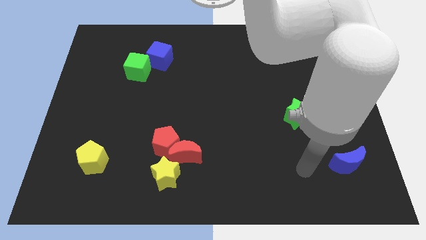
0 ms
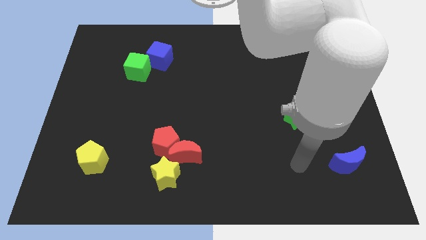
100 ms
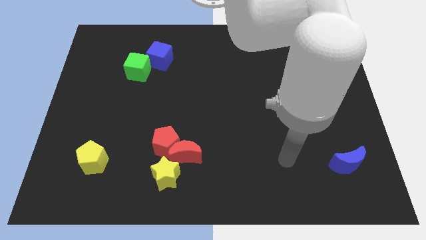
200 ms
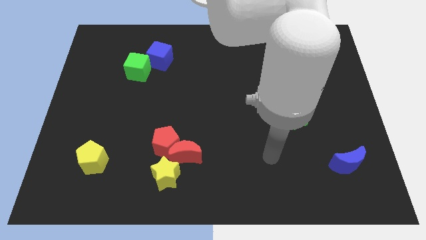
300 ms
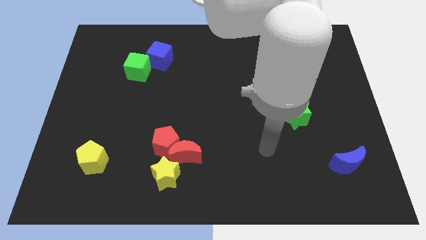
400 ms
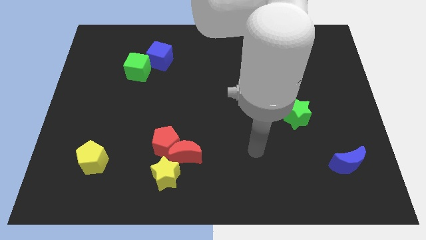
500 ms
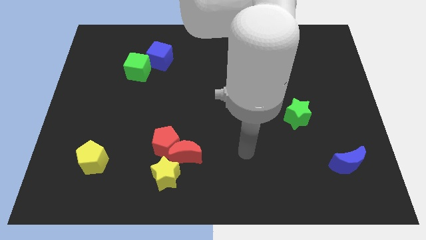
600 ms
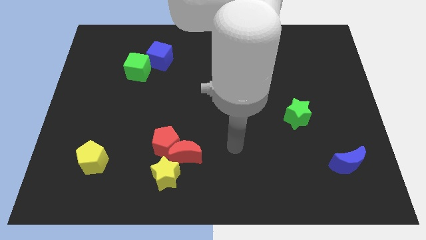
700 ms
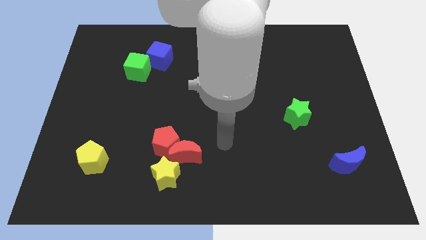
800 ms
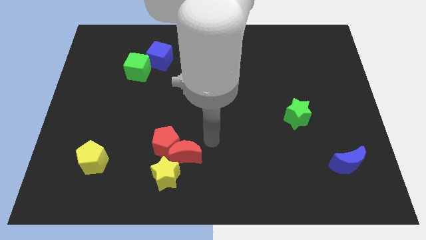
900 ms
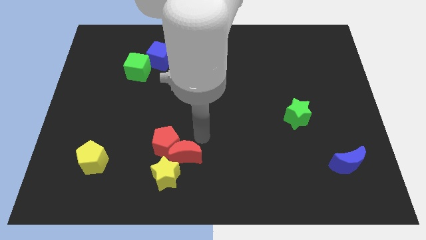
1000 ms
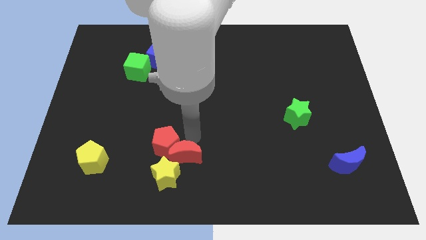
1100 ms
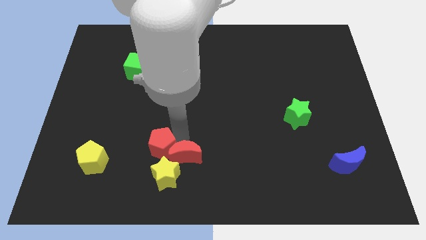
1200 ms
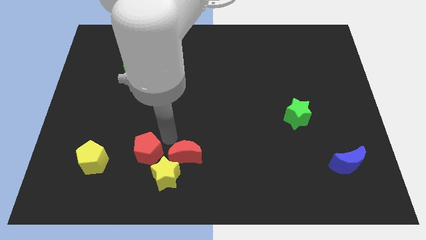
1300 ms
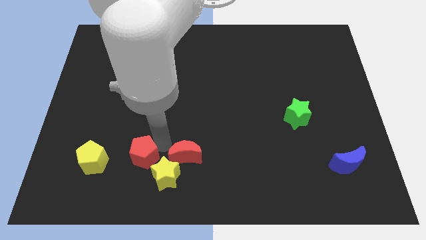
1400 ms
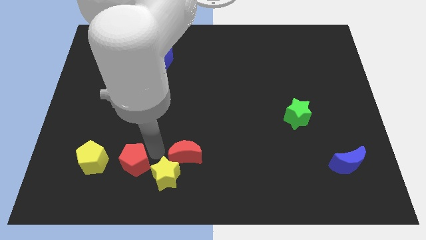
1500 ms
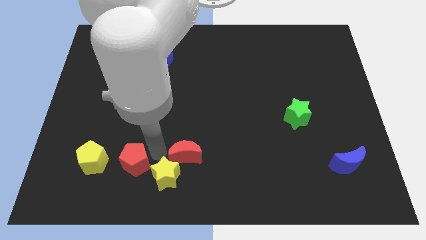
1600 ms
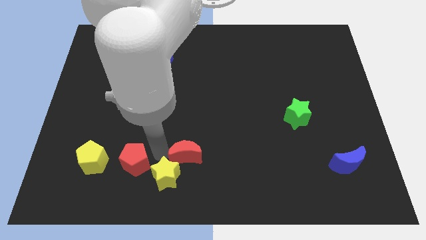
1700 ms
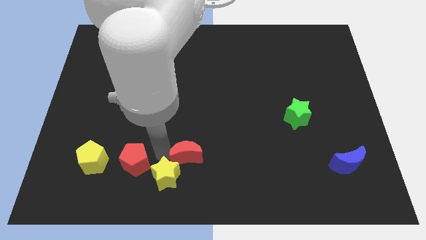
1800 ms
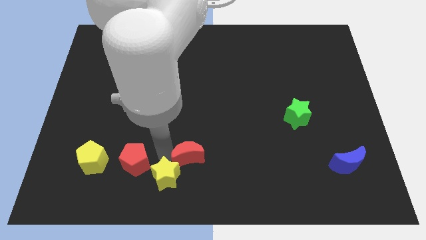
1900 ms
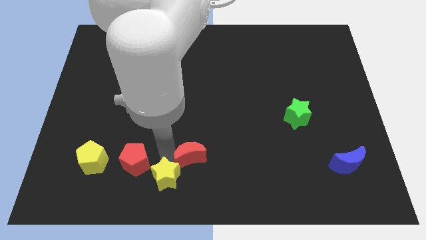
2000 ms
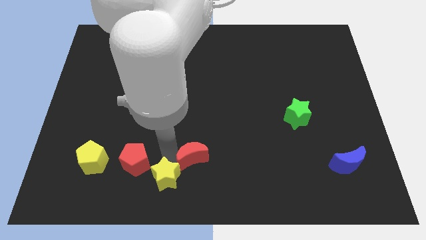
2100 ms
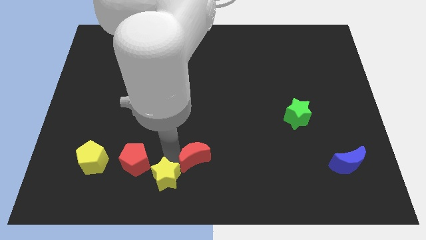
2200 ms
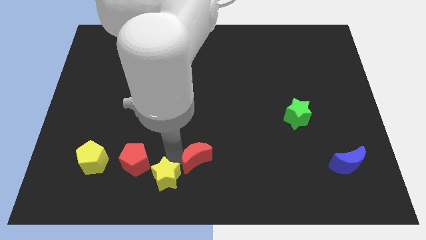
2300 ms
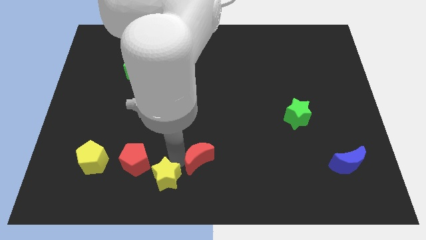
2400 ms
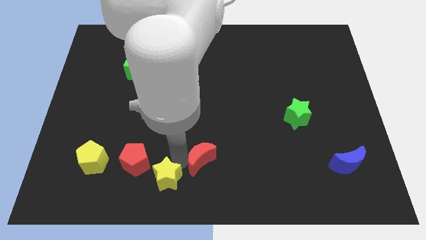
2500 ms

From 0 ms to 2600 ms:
separate the red moon from the red pentagon and yellow star

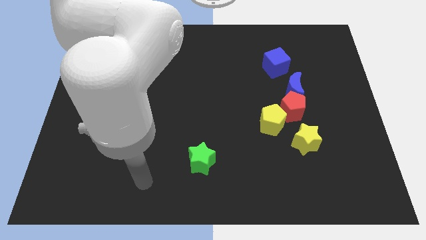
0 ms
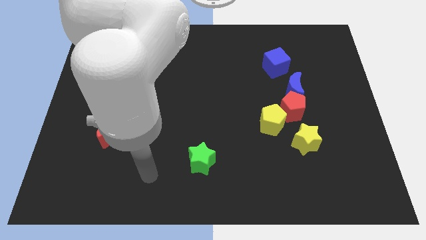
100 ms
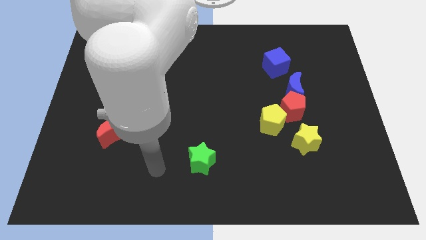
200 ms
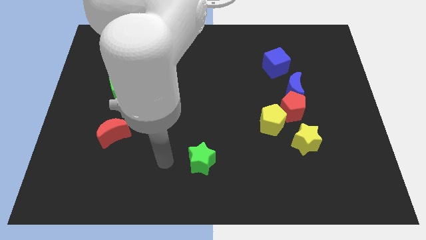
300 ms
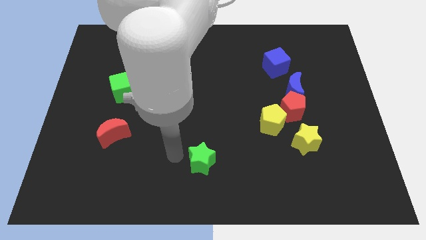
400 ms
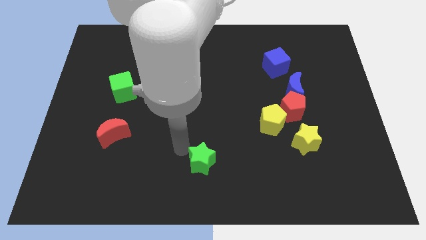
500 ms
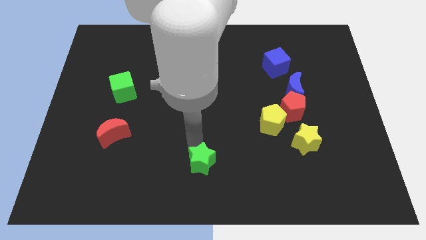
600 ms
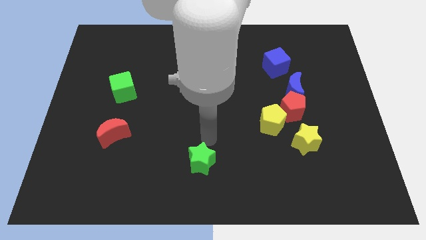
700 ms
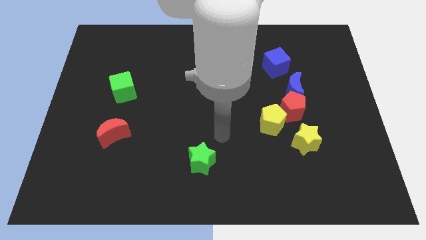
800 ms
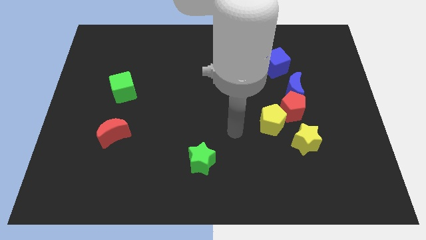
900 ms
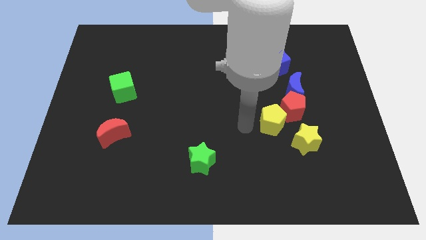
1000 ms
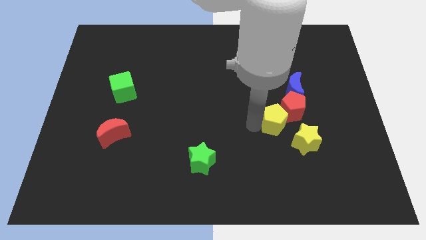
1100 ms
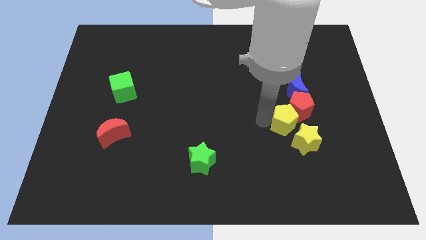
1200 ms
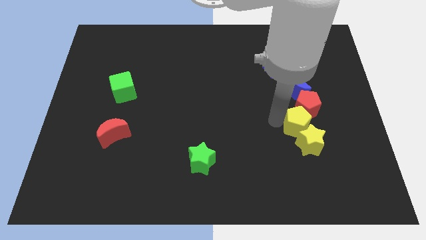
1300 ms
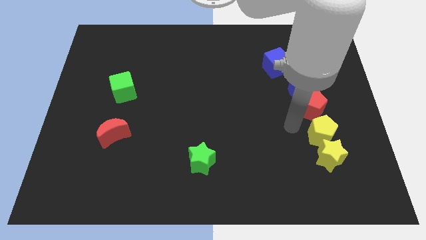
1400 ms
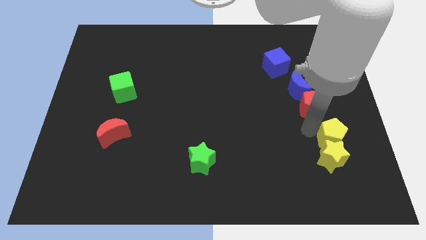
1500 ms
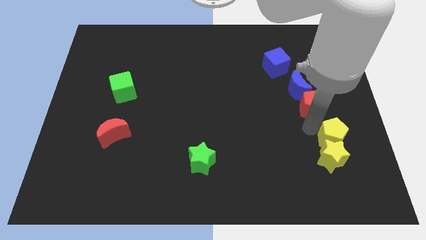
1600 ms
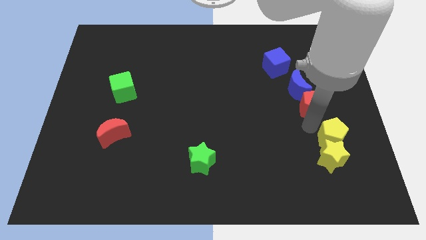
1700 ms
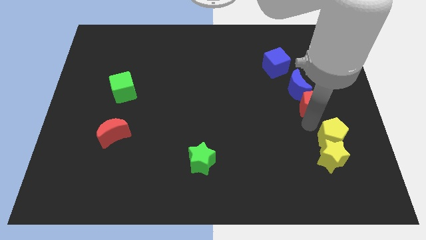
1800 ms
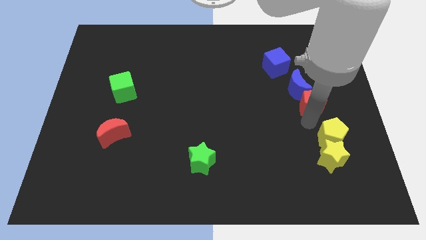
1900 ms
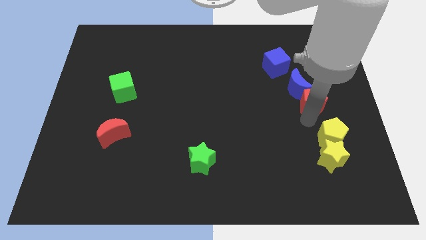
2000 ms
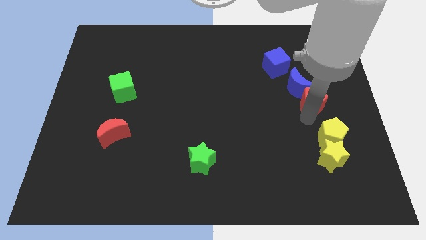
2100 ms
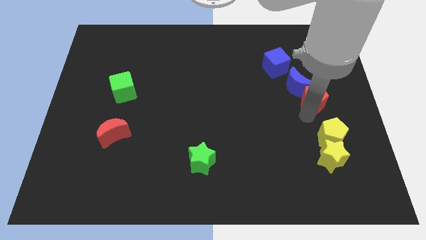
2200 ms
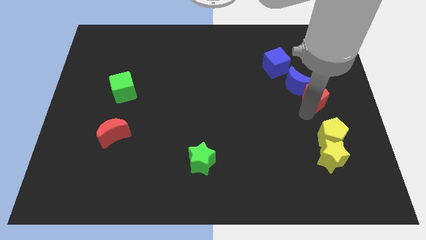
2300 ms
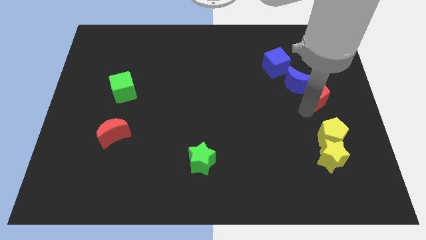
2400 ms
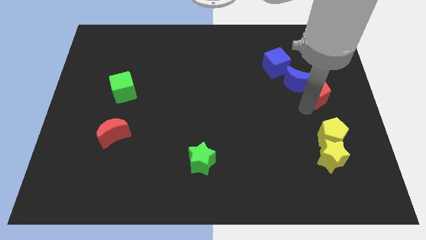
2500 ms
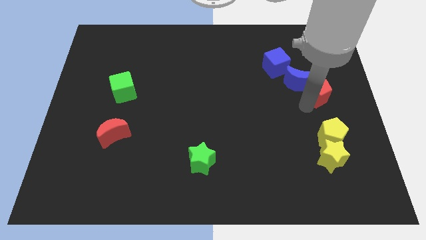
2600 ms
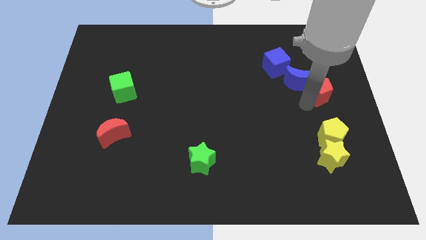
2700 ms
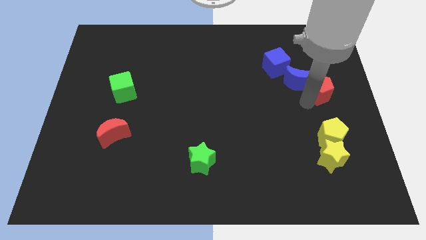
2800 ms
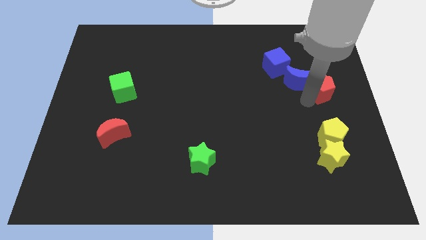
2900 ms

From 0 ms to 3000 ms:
separate the red pentagon from the clump

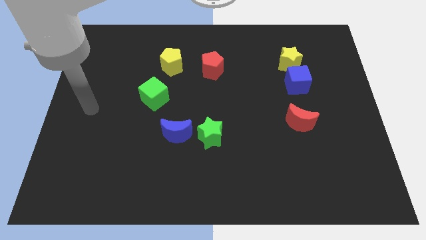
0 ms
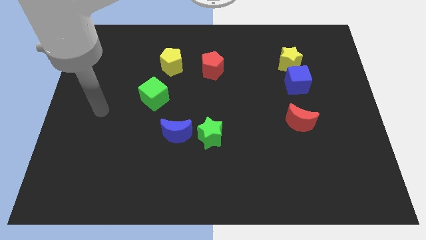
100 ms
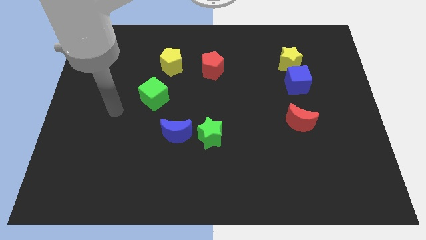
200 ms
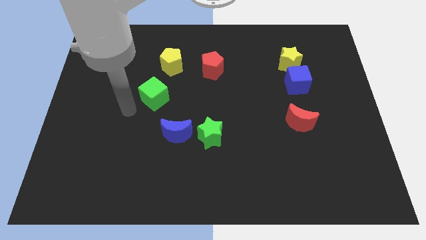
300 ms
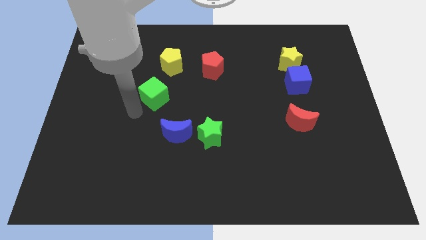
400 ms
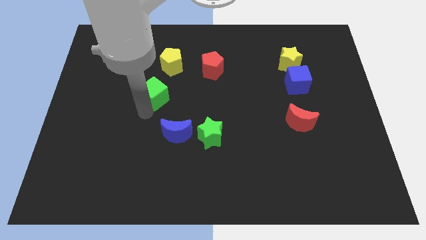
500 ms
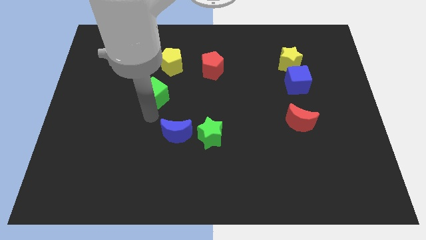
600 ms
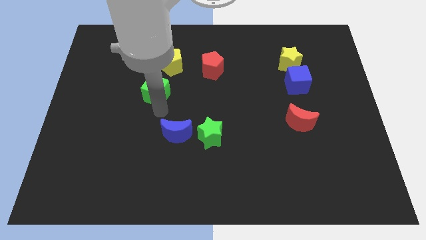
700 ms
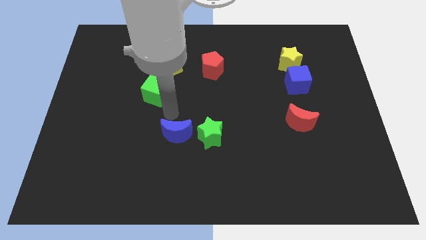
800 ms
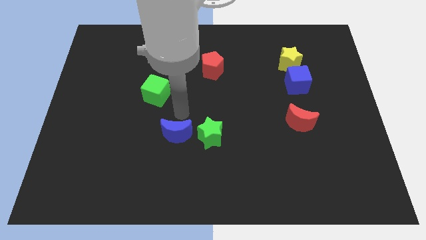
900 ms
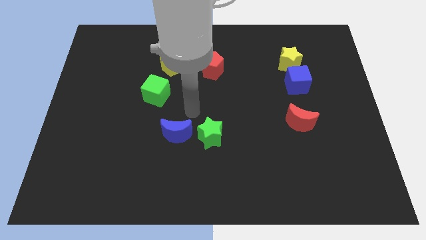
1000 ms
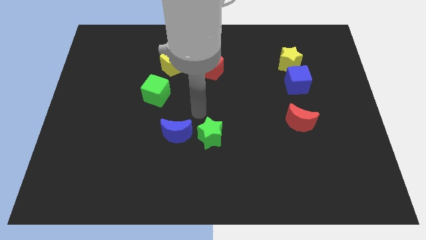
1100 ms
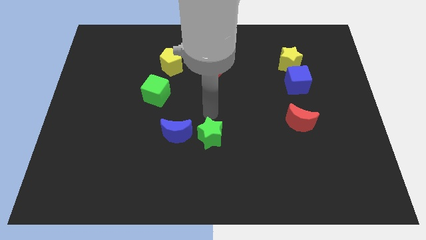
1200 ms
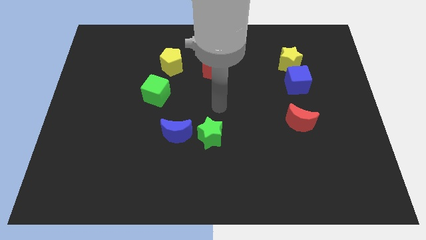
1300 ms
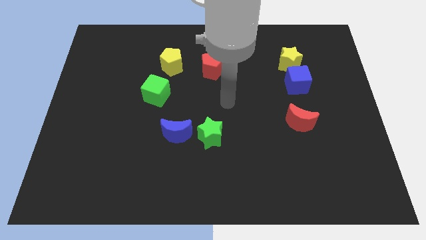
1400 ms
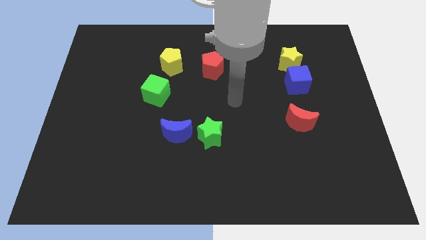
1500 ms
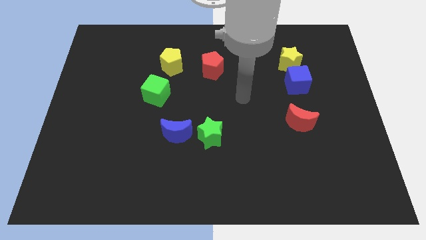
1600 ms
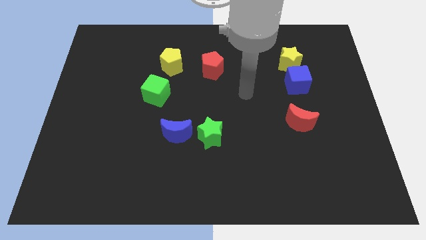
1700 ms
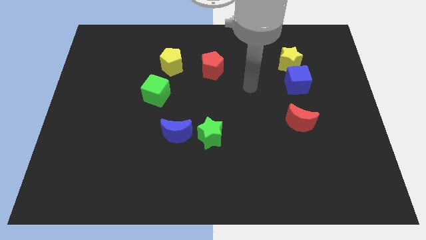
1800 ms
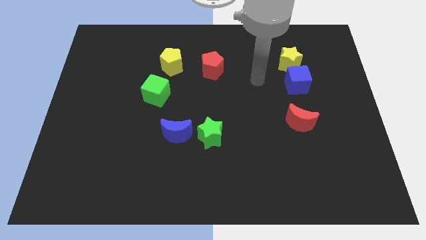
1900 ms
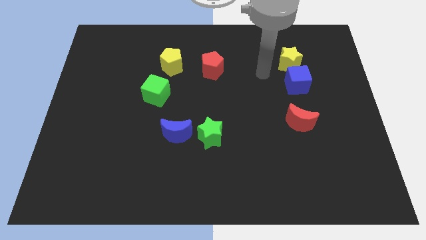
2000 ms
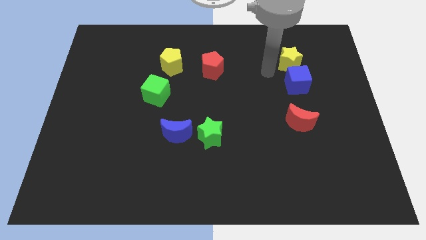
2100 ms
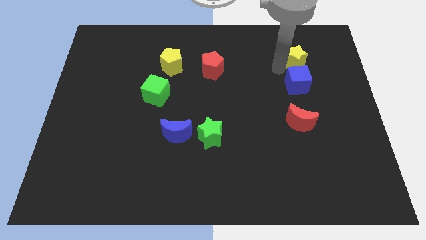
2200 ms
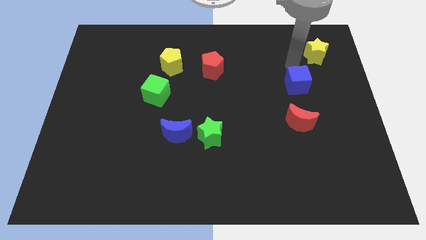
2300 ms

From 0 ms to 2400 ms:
pull the blue cube apart from the yellow star

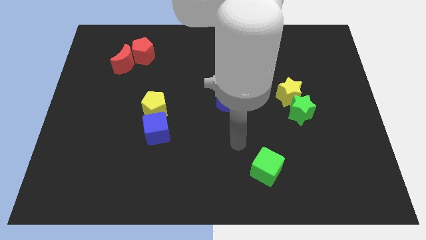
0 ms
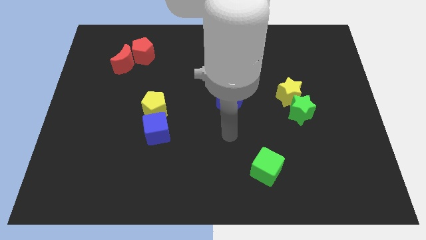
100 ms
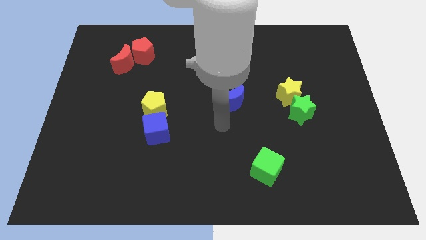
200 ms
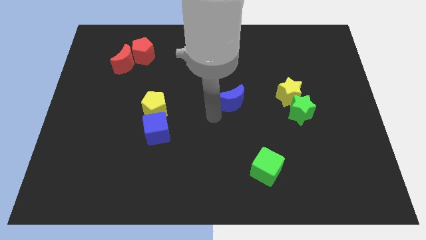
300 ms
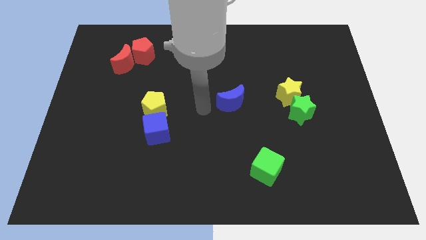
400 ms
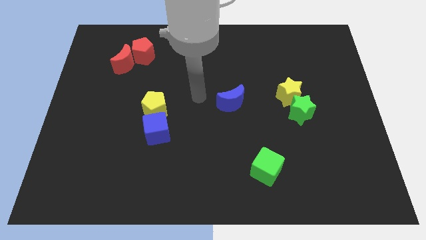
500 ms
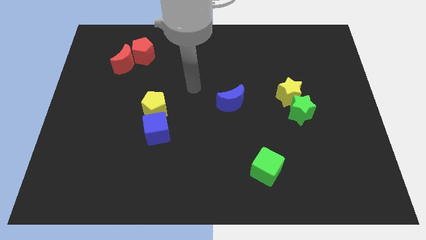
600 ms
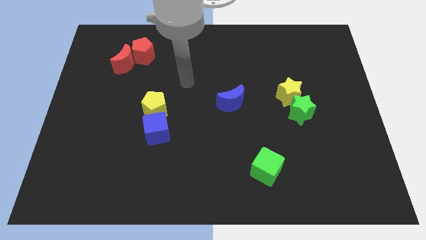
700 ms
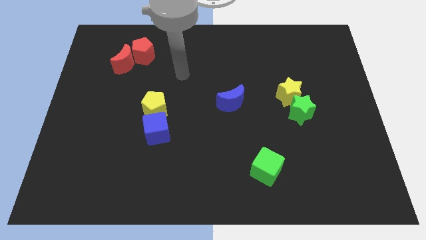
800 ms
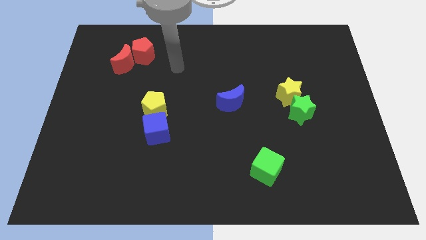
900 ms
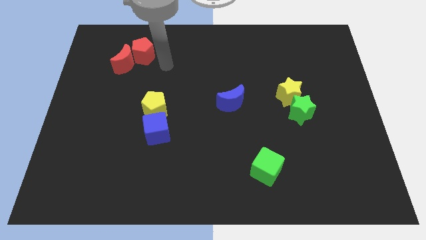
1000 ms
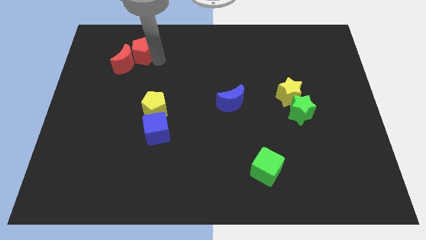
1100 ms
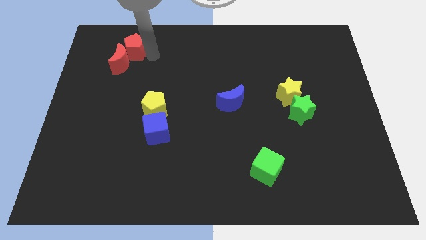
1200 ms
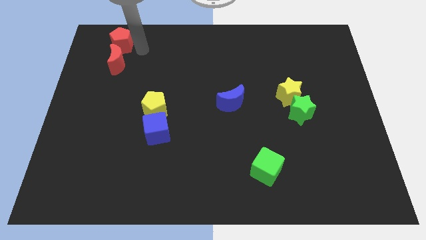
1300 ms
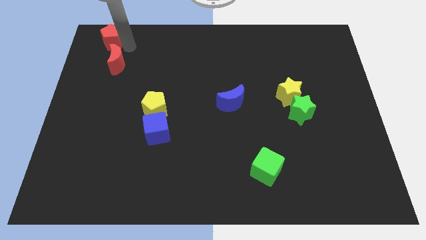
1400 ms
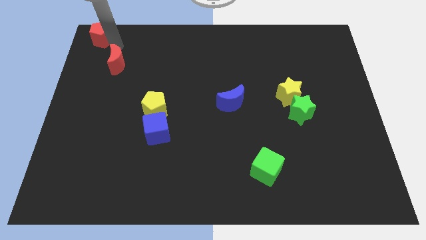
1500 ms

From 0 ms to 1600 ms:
move the red moon away from the red pentagon

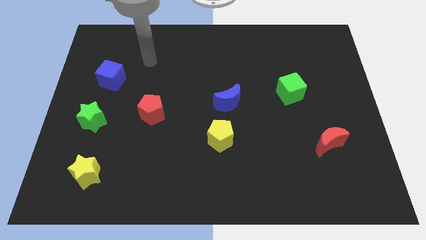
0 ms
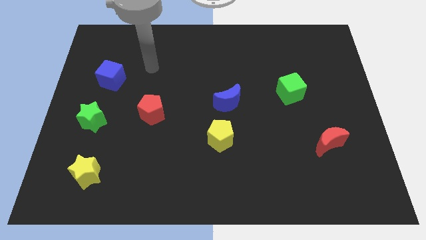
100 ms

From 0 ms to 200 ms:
pull the blue moon apart from the yellow pentagon
